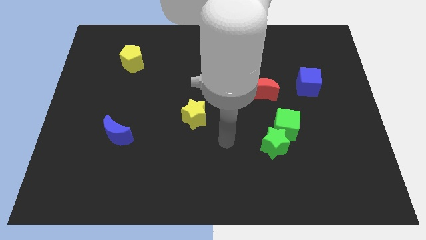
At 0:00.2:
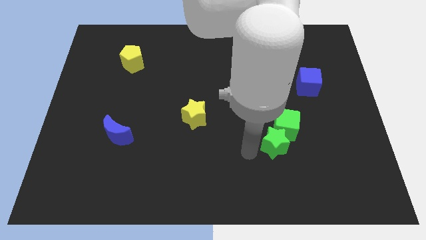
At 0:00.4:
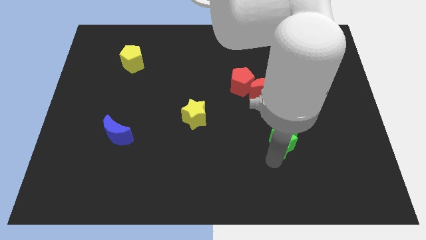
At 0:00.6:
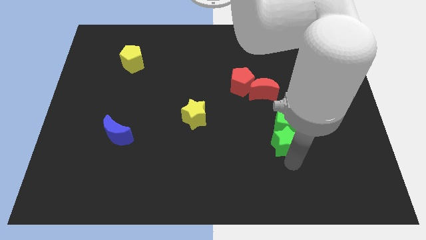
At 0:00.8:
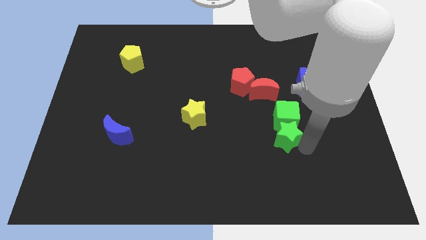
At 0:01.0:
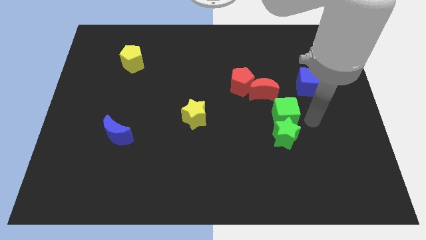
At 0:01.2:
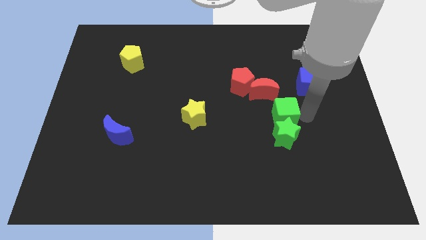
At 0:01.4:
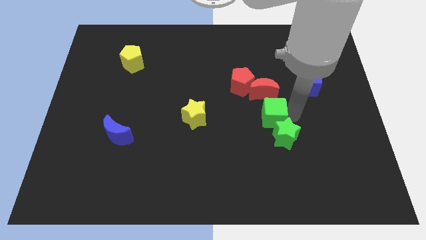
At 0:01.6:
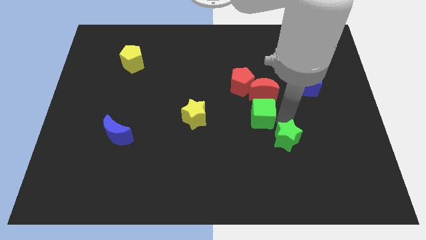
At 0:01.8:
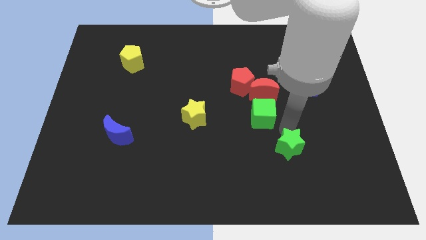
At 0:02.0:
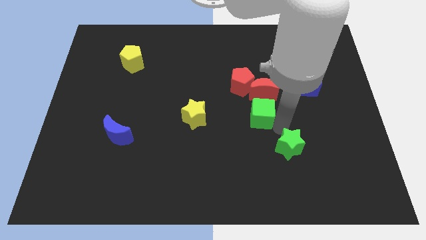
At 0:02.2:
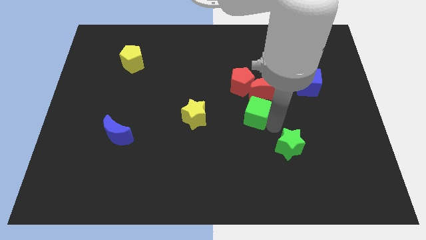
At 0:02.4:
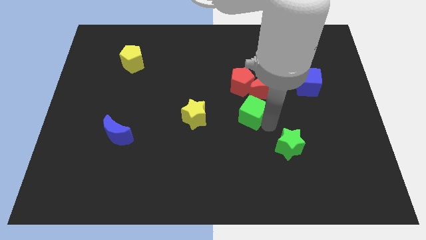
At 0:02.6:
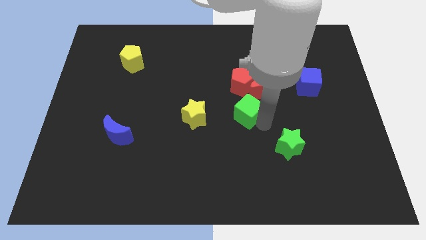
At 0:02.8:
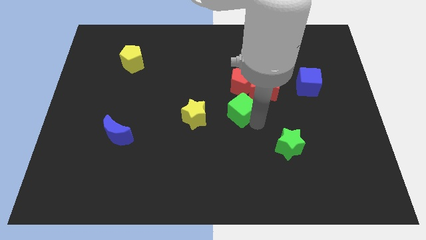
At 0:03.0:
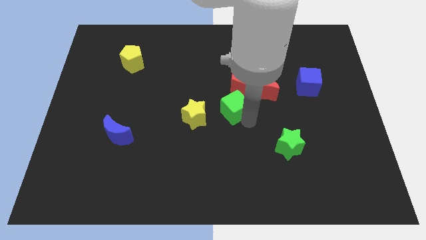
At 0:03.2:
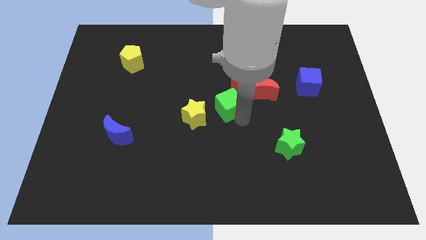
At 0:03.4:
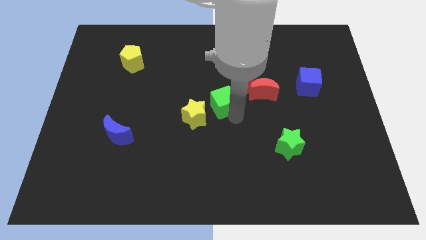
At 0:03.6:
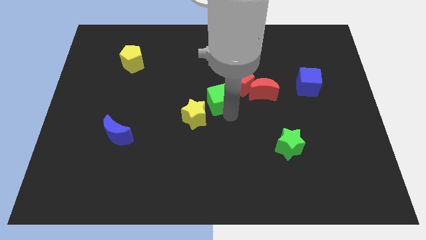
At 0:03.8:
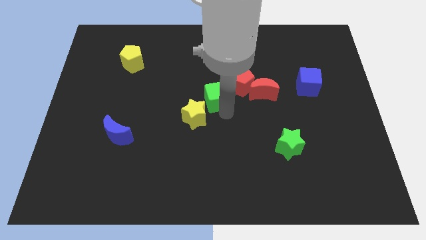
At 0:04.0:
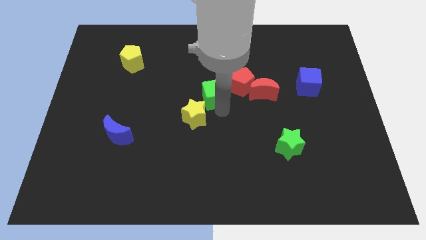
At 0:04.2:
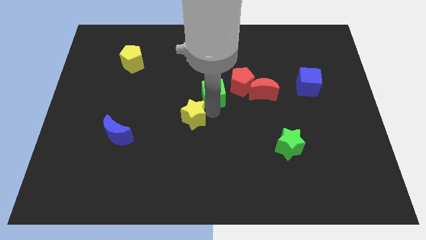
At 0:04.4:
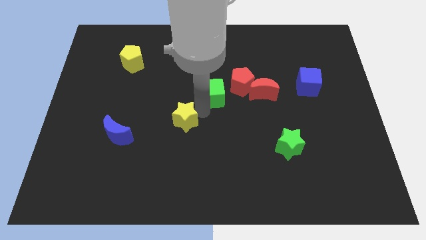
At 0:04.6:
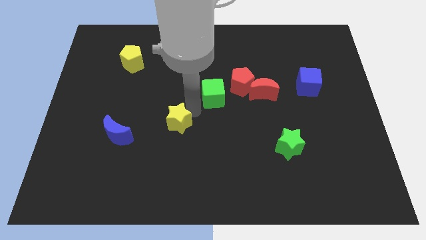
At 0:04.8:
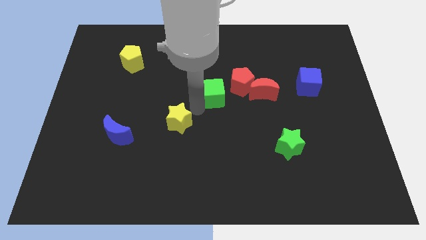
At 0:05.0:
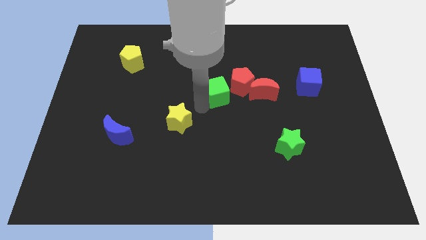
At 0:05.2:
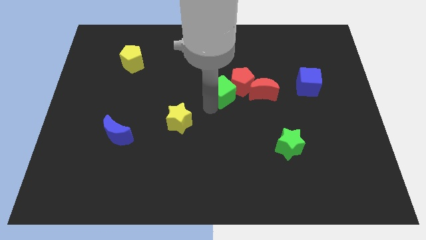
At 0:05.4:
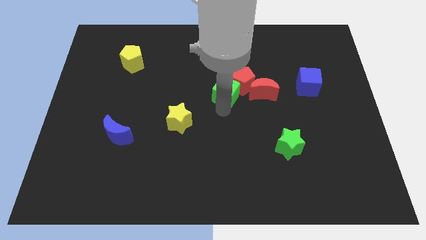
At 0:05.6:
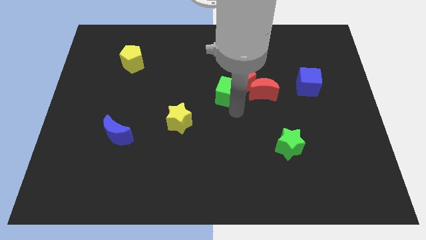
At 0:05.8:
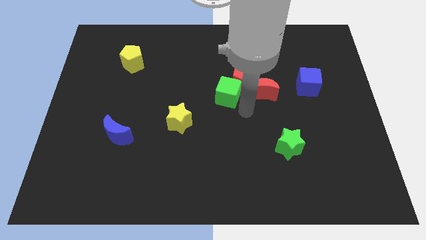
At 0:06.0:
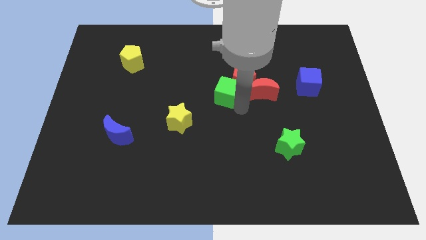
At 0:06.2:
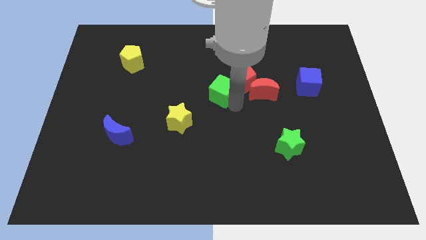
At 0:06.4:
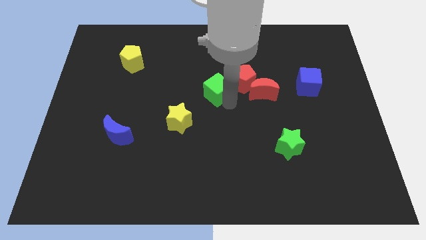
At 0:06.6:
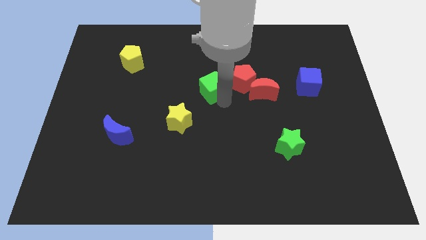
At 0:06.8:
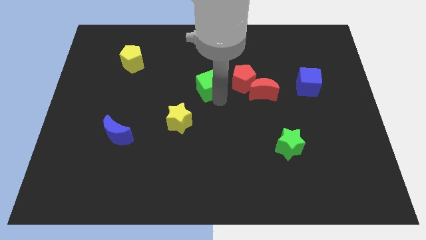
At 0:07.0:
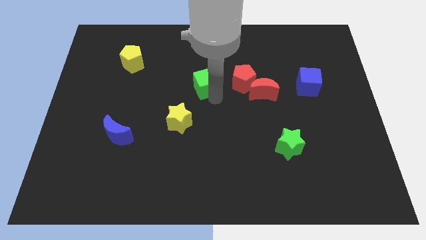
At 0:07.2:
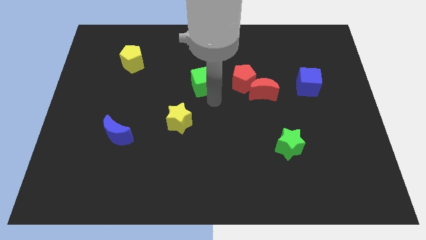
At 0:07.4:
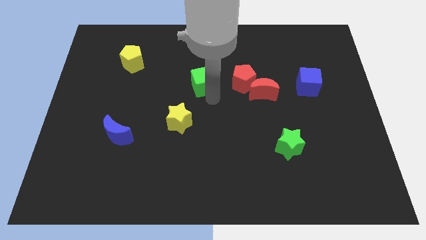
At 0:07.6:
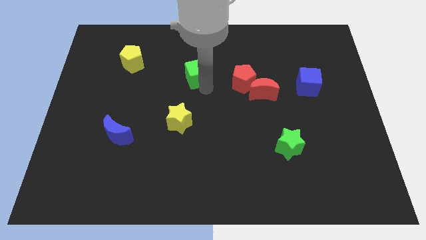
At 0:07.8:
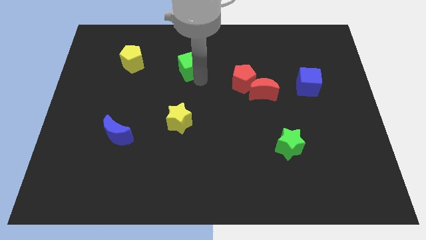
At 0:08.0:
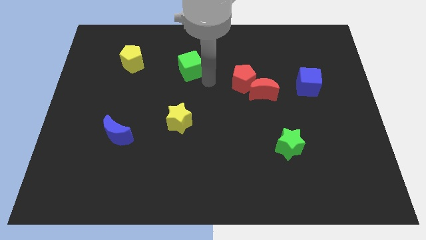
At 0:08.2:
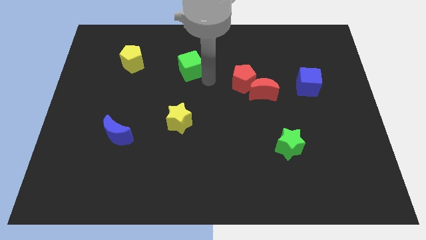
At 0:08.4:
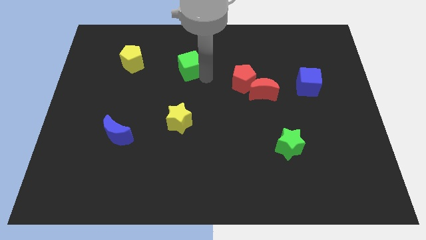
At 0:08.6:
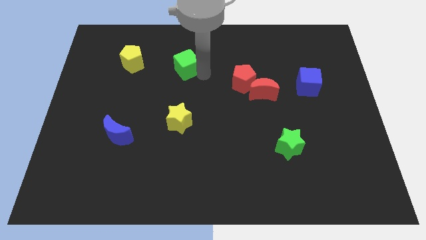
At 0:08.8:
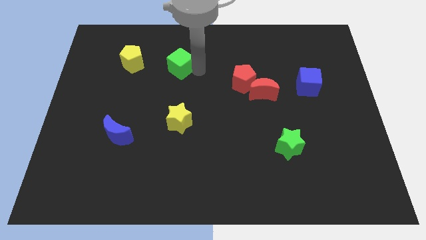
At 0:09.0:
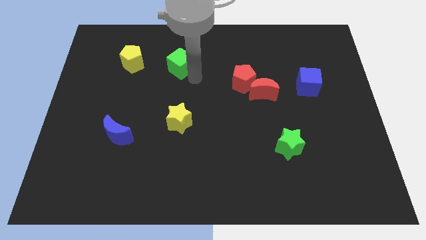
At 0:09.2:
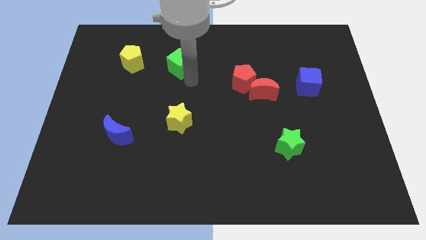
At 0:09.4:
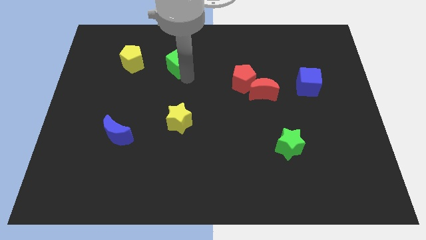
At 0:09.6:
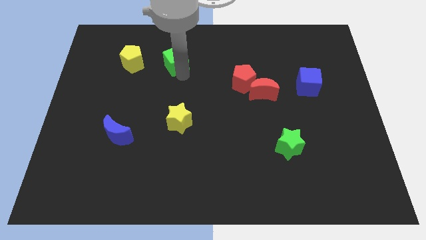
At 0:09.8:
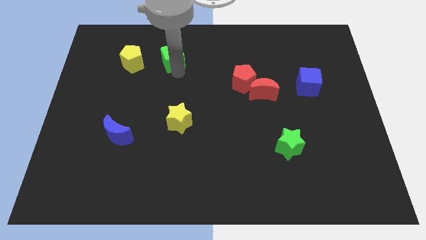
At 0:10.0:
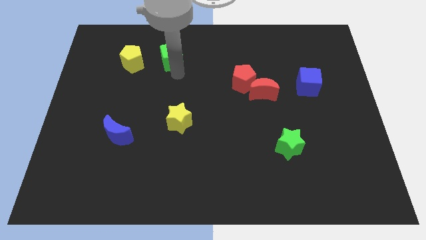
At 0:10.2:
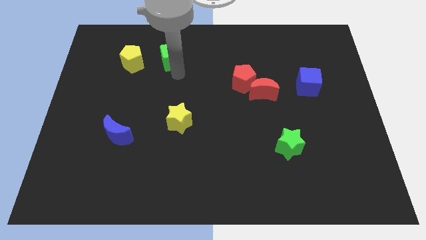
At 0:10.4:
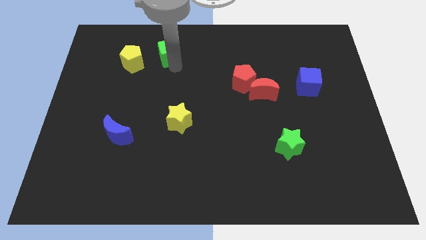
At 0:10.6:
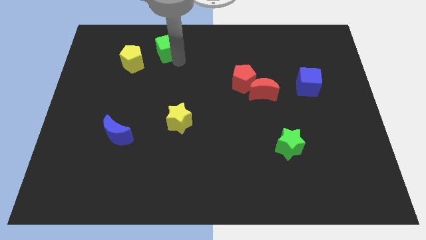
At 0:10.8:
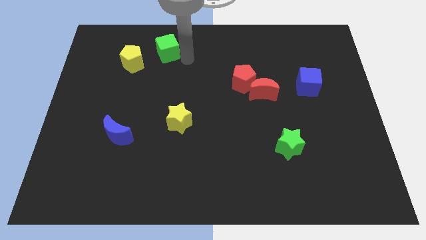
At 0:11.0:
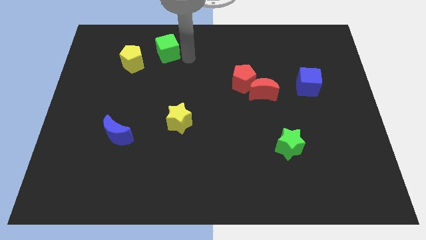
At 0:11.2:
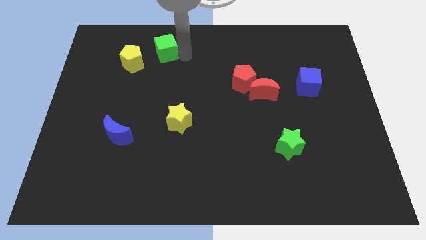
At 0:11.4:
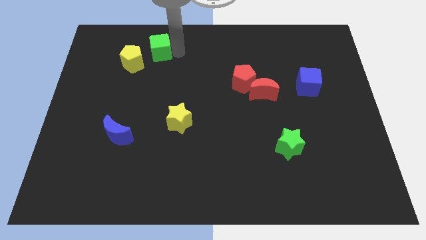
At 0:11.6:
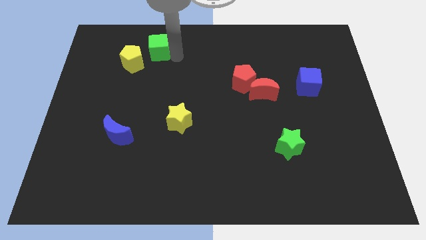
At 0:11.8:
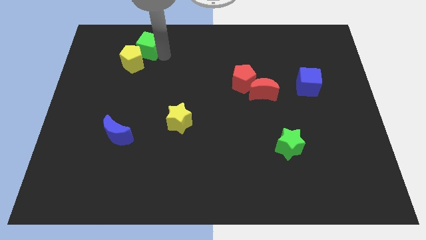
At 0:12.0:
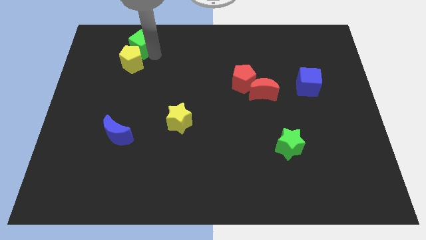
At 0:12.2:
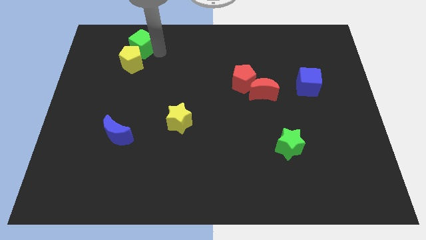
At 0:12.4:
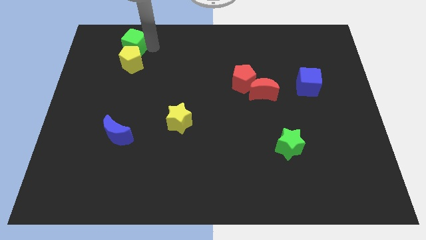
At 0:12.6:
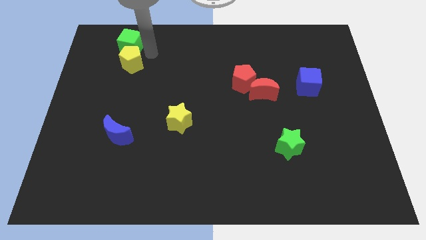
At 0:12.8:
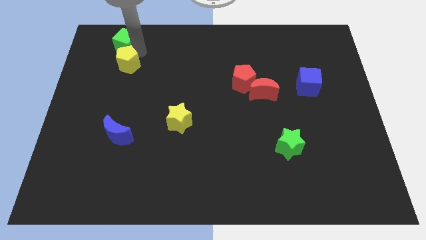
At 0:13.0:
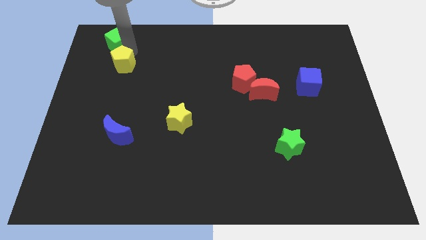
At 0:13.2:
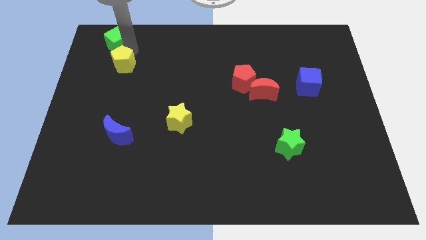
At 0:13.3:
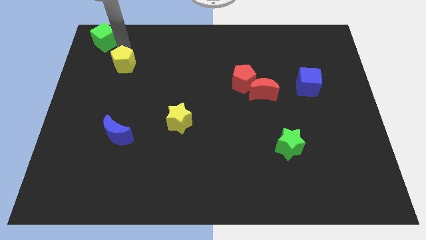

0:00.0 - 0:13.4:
slide the green cube to the top left
